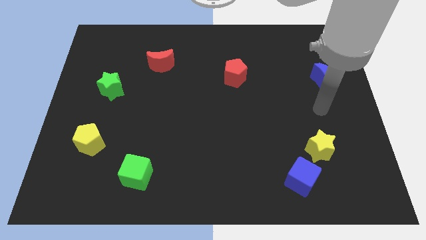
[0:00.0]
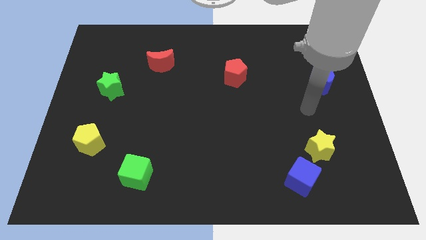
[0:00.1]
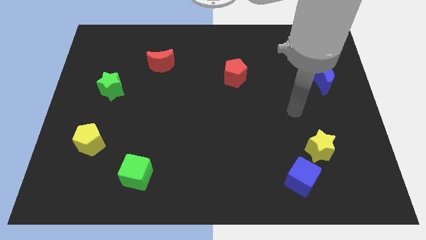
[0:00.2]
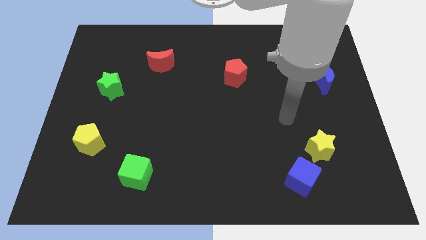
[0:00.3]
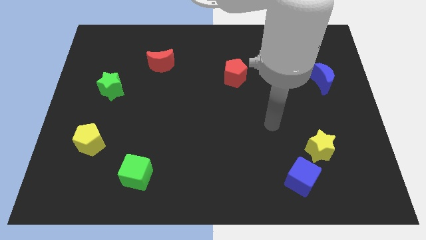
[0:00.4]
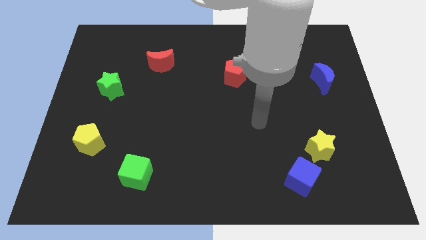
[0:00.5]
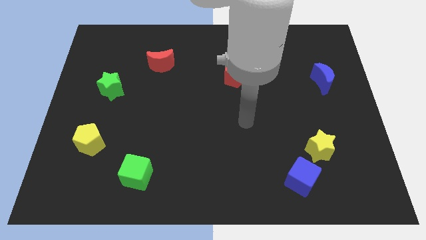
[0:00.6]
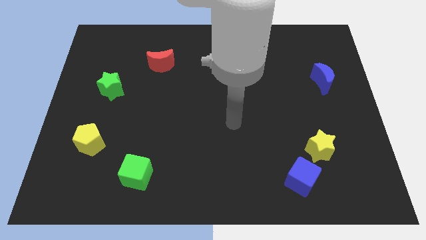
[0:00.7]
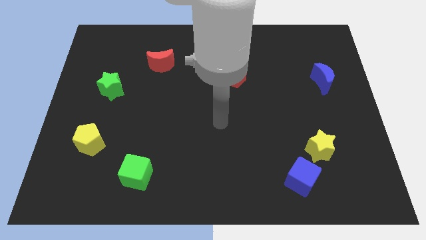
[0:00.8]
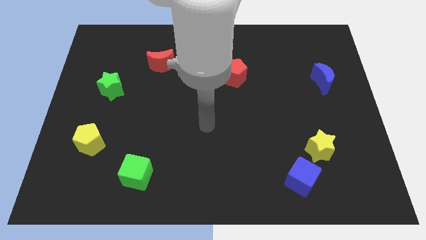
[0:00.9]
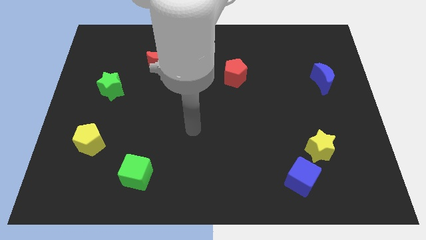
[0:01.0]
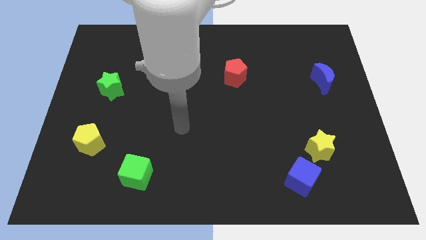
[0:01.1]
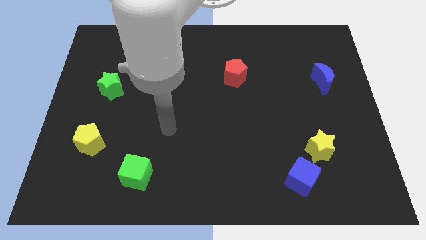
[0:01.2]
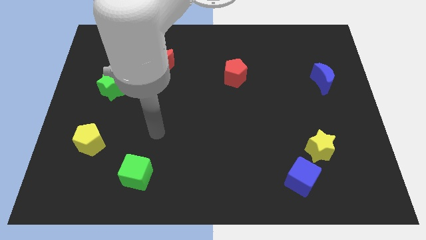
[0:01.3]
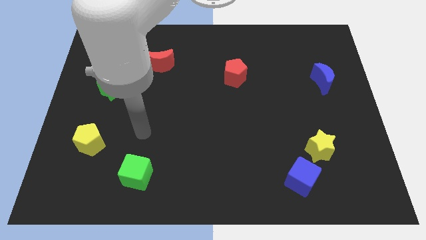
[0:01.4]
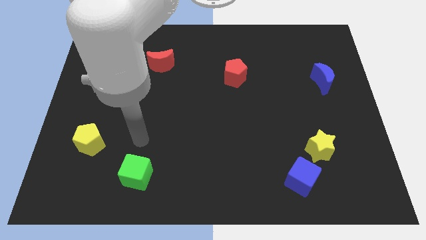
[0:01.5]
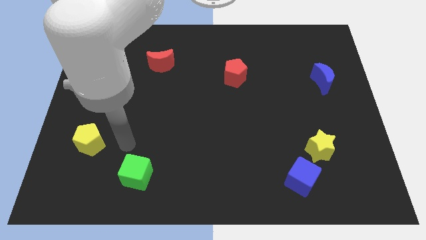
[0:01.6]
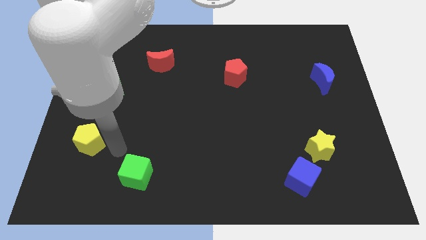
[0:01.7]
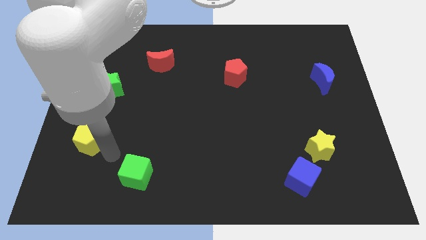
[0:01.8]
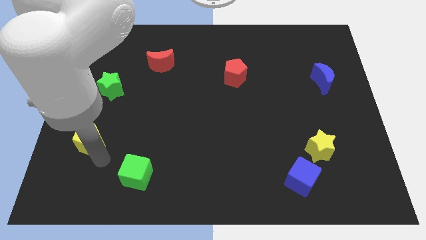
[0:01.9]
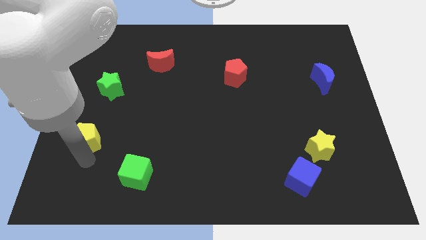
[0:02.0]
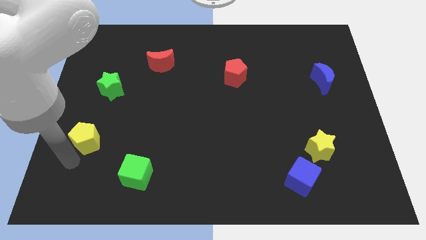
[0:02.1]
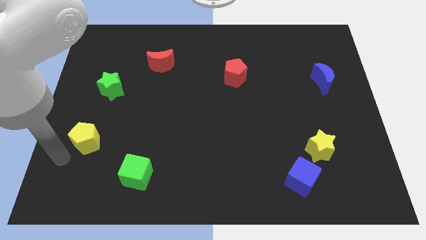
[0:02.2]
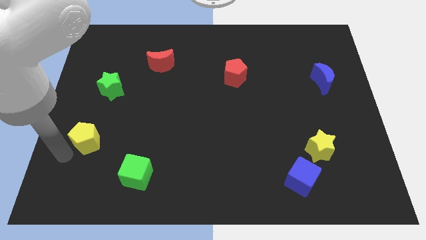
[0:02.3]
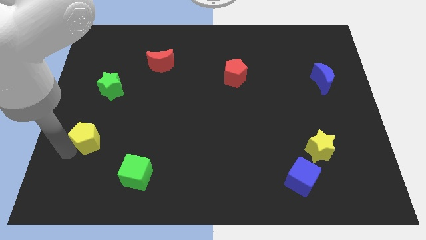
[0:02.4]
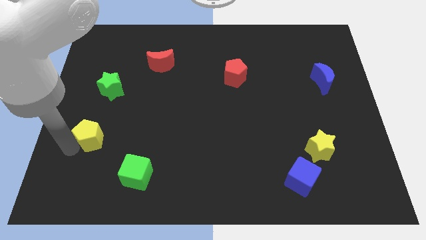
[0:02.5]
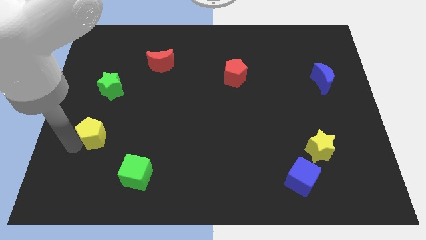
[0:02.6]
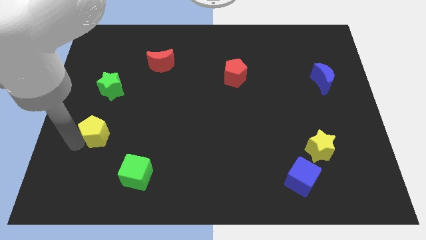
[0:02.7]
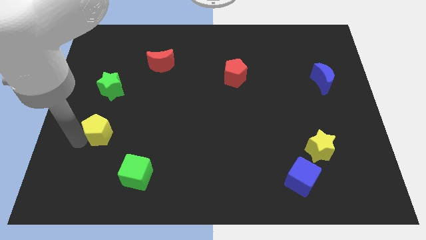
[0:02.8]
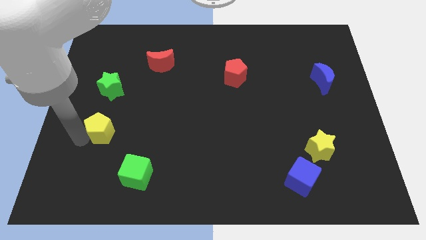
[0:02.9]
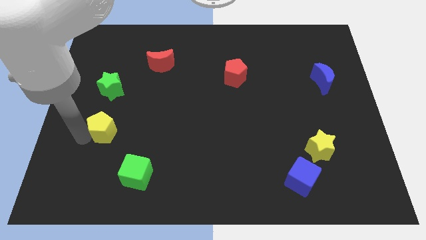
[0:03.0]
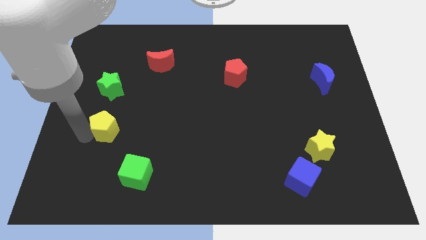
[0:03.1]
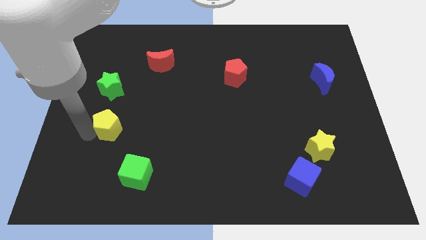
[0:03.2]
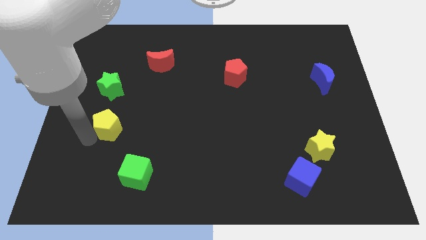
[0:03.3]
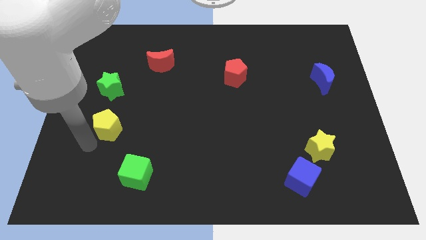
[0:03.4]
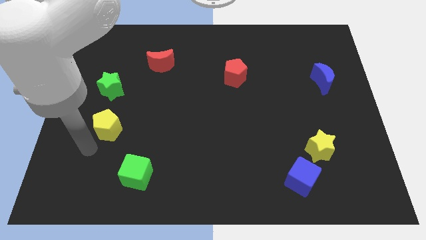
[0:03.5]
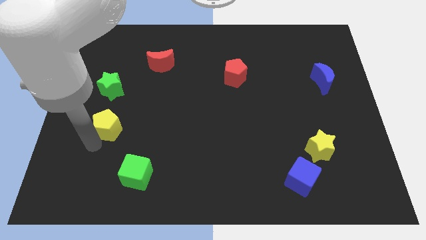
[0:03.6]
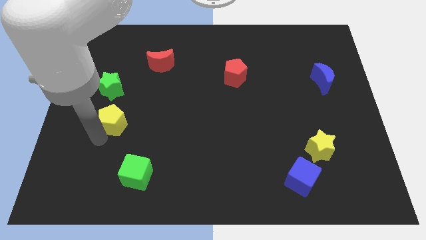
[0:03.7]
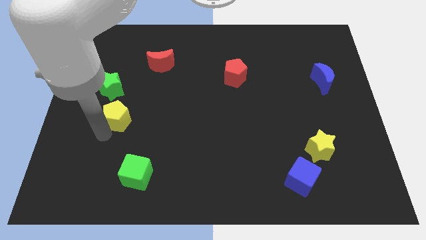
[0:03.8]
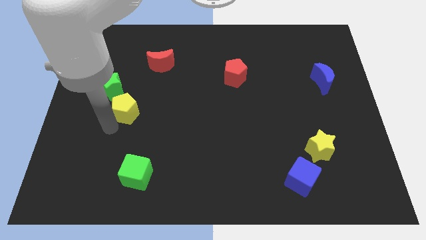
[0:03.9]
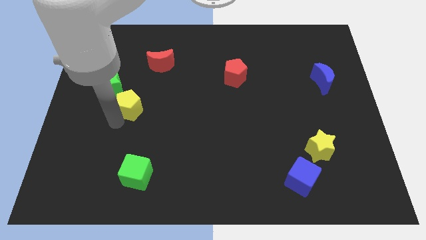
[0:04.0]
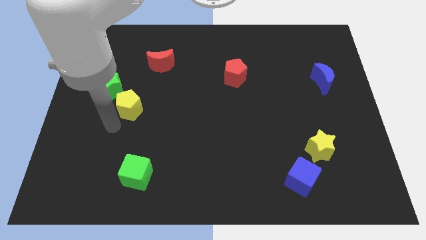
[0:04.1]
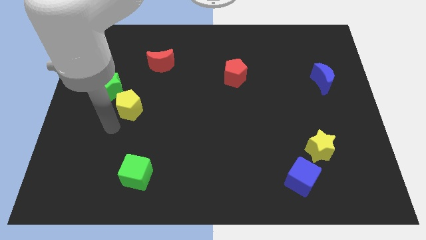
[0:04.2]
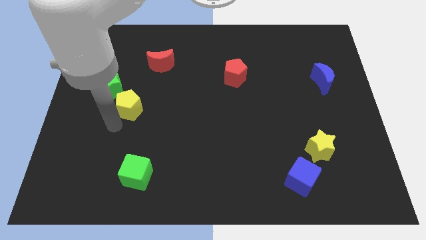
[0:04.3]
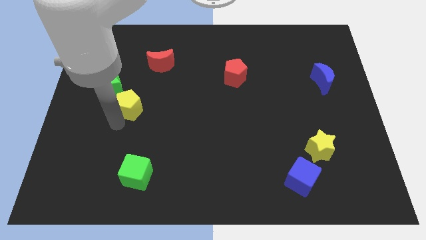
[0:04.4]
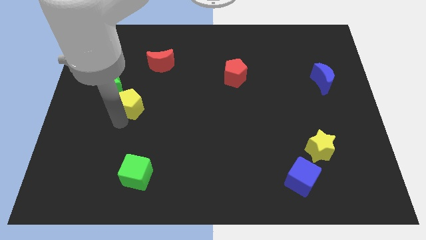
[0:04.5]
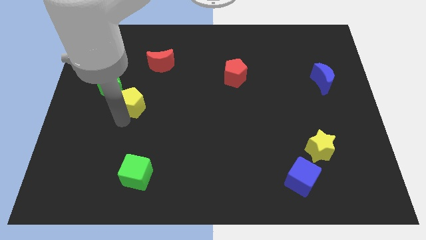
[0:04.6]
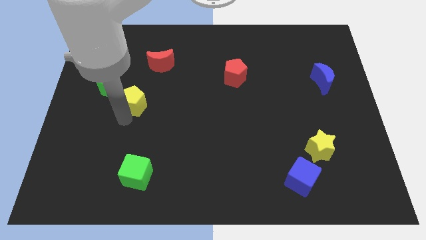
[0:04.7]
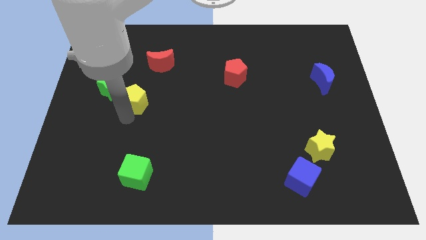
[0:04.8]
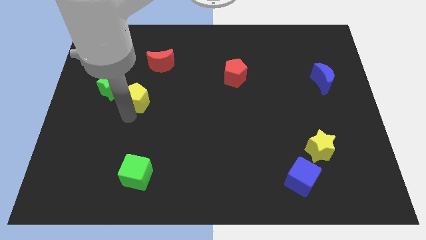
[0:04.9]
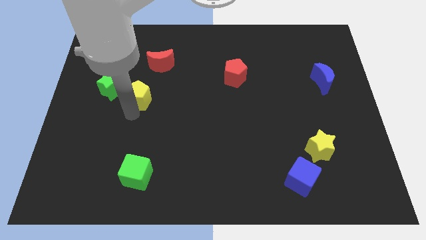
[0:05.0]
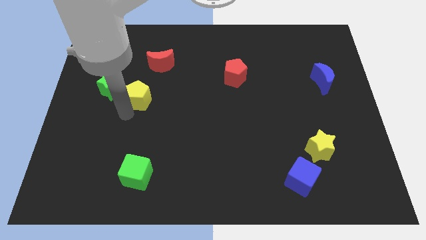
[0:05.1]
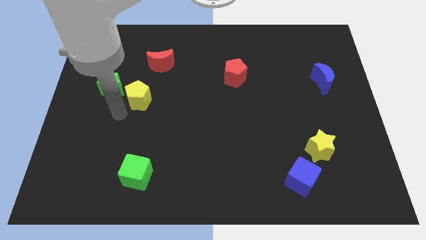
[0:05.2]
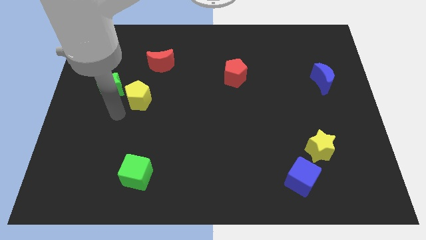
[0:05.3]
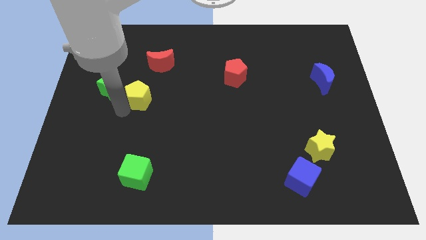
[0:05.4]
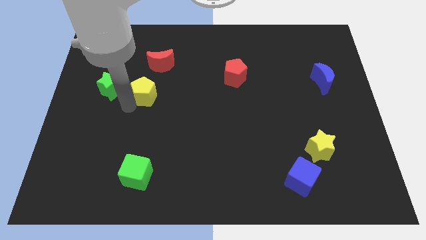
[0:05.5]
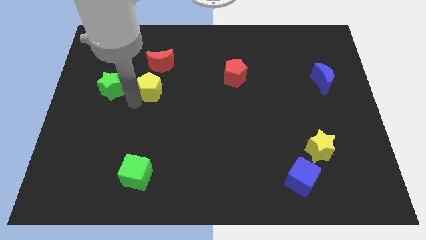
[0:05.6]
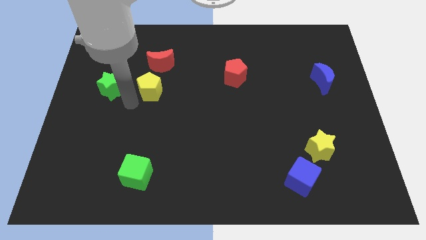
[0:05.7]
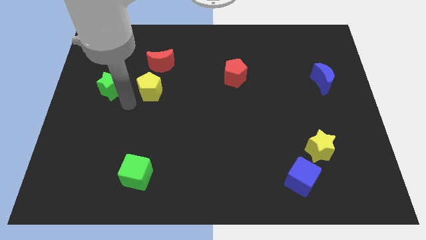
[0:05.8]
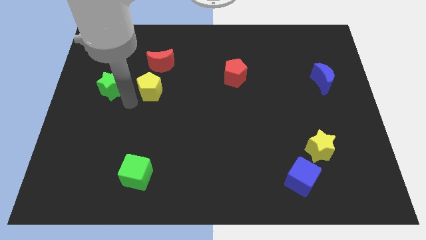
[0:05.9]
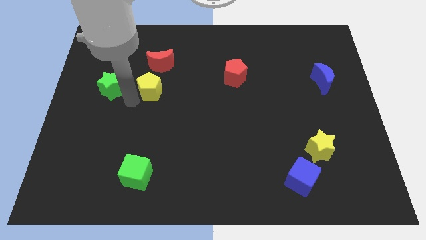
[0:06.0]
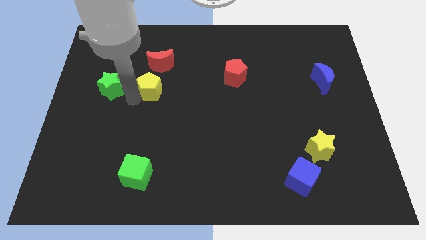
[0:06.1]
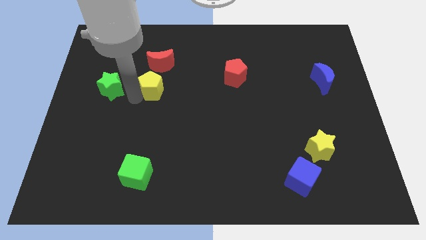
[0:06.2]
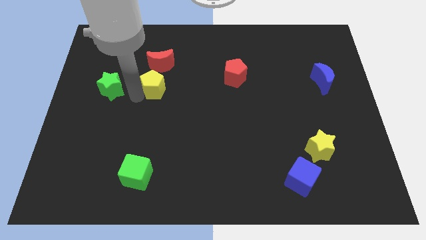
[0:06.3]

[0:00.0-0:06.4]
move the yellow pentagon up and then right

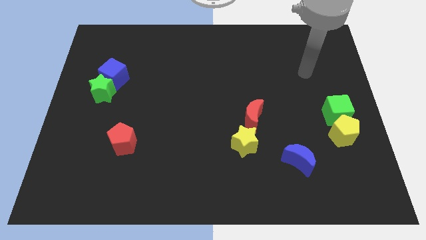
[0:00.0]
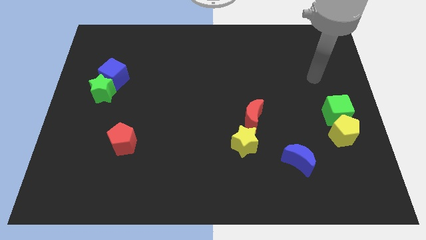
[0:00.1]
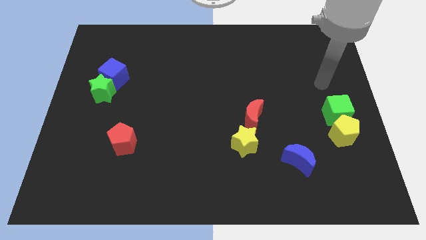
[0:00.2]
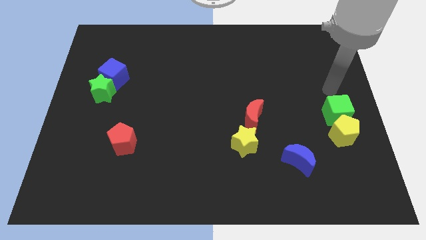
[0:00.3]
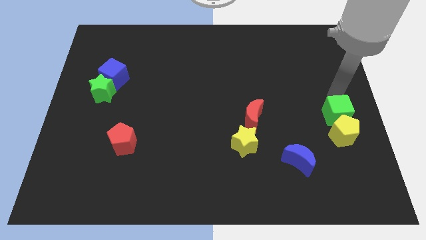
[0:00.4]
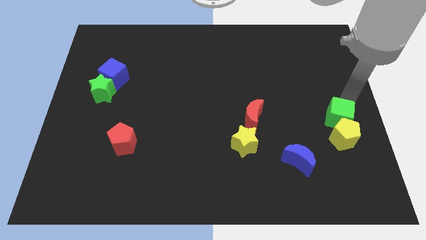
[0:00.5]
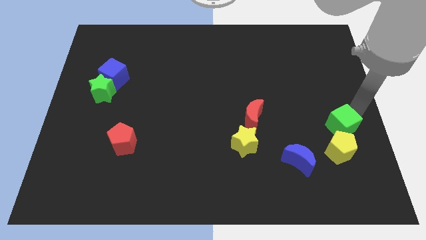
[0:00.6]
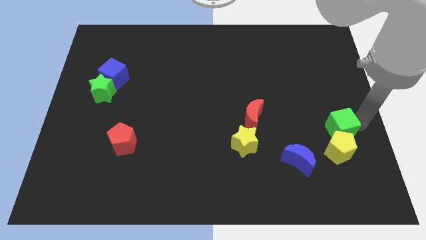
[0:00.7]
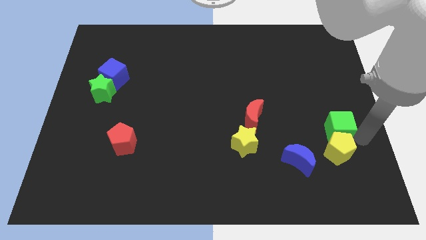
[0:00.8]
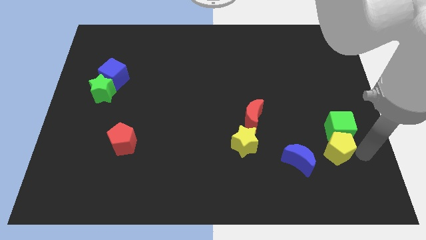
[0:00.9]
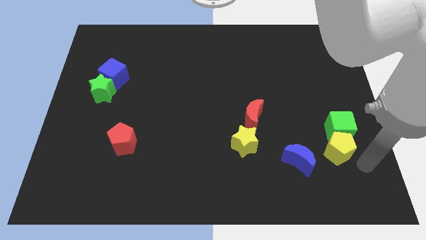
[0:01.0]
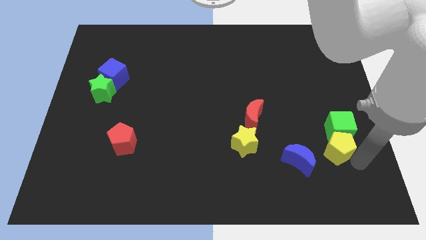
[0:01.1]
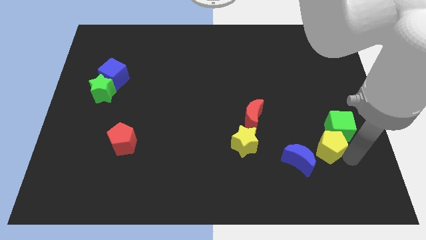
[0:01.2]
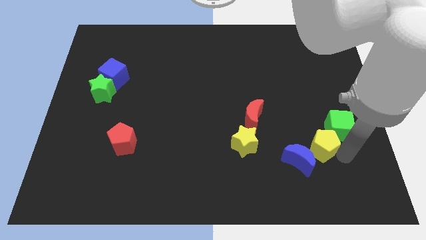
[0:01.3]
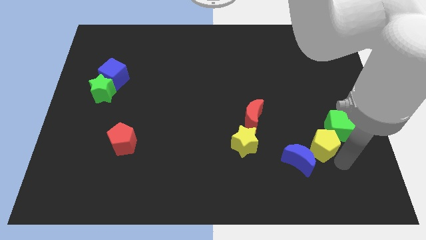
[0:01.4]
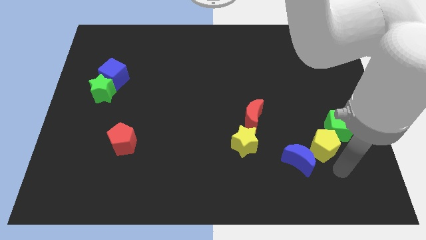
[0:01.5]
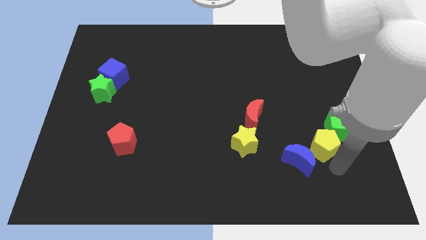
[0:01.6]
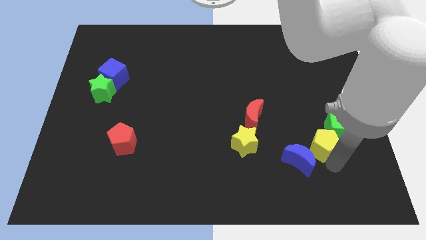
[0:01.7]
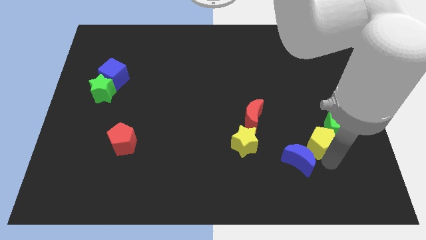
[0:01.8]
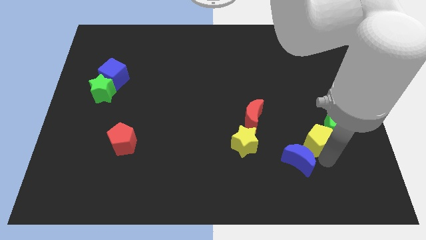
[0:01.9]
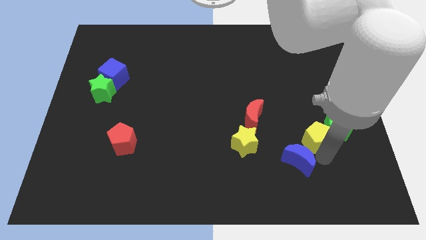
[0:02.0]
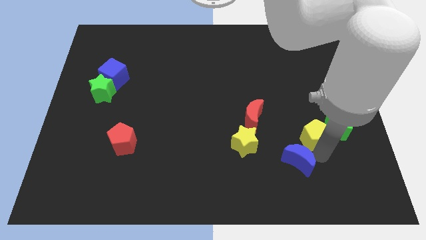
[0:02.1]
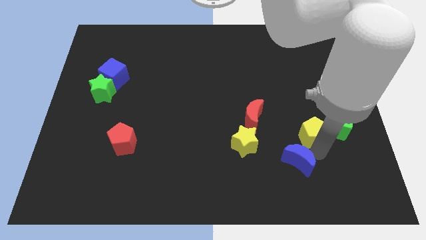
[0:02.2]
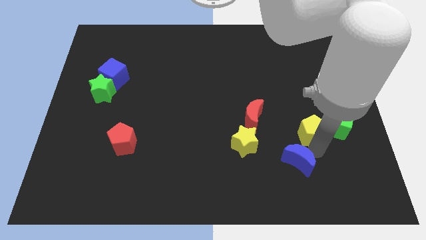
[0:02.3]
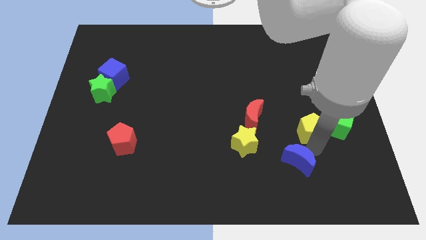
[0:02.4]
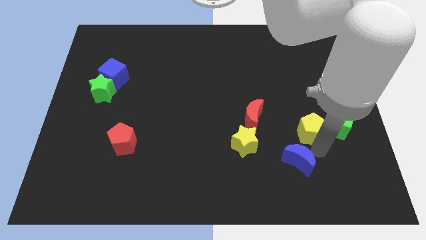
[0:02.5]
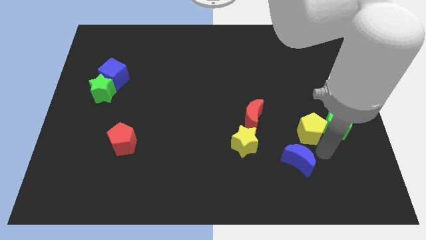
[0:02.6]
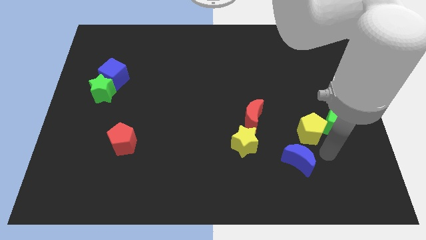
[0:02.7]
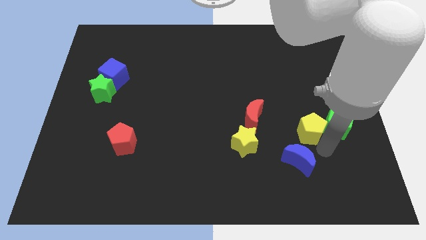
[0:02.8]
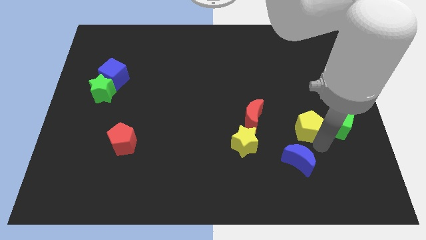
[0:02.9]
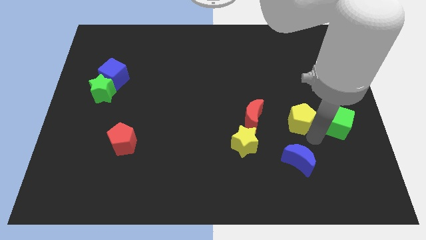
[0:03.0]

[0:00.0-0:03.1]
slide the yellow pentagon a little upwards and to the left
